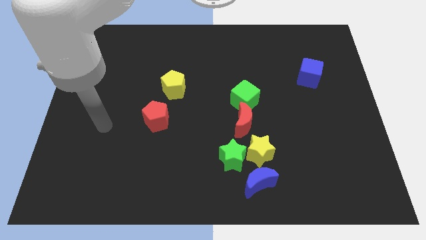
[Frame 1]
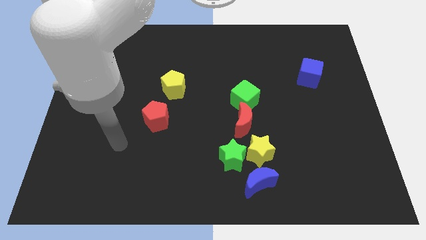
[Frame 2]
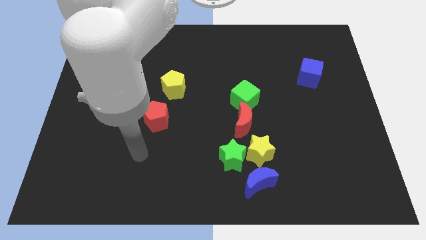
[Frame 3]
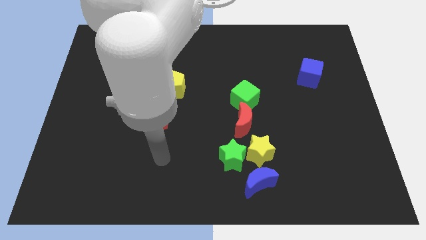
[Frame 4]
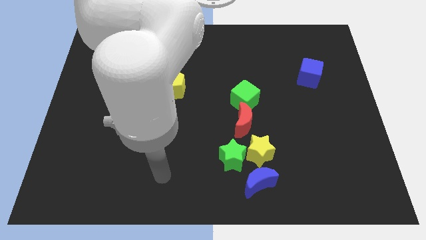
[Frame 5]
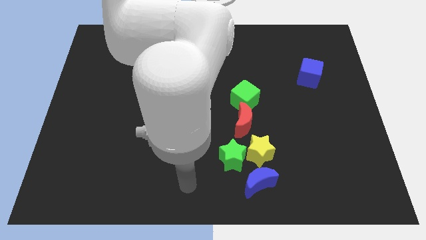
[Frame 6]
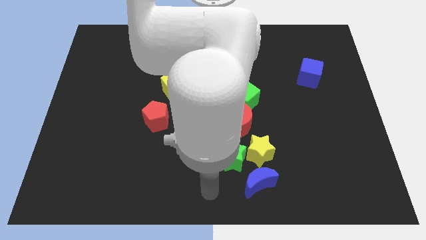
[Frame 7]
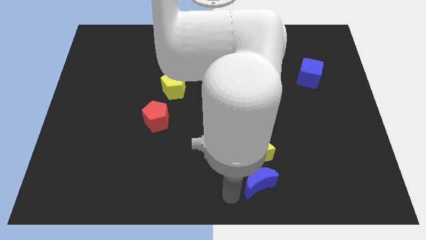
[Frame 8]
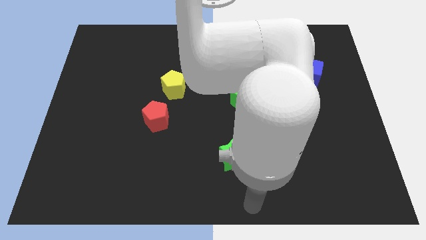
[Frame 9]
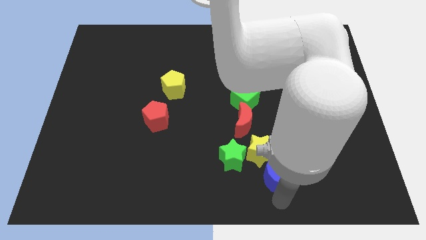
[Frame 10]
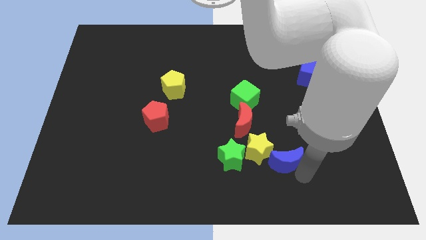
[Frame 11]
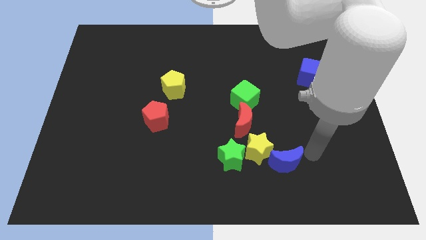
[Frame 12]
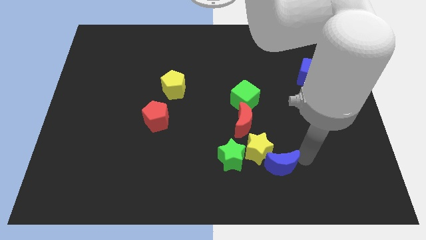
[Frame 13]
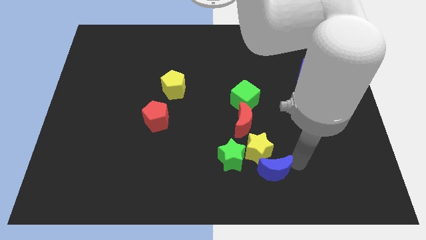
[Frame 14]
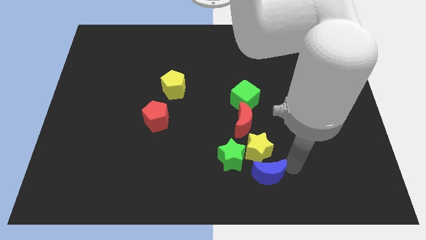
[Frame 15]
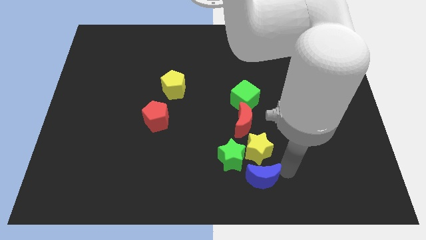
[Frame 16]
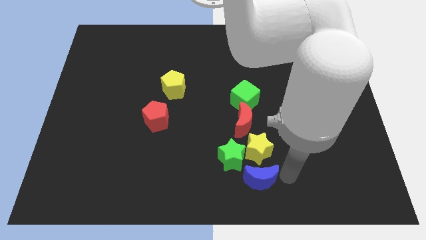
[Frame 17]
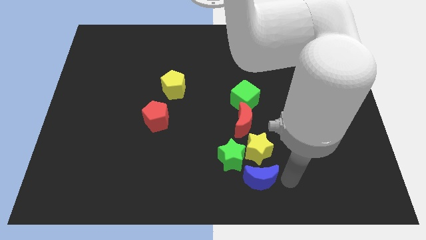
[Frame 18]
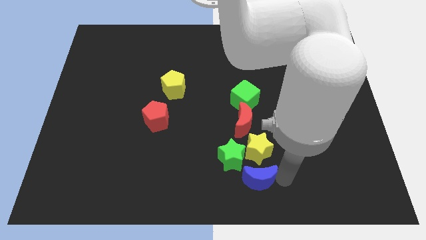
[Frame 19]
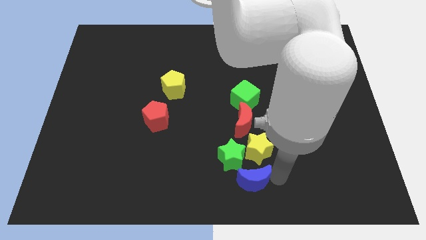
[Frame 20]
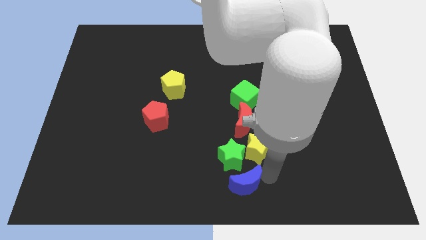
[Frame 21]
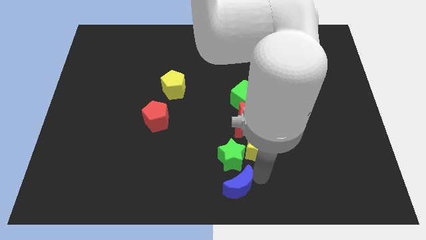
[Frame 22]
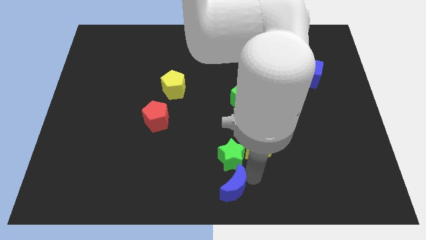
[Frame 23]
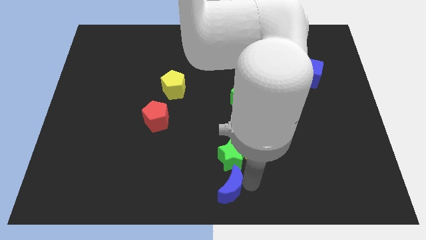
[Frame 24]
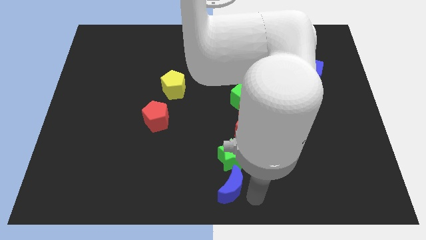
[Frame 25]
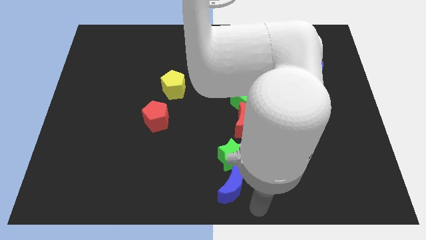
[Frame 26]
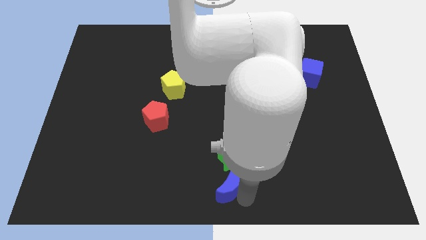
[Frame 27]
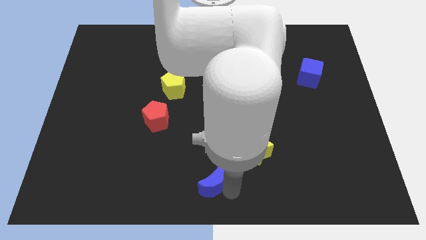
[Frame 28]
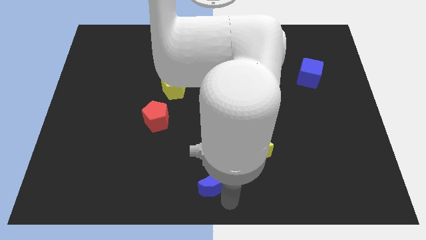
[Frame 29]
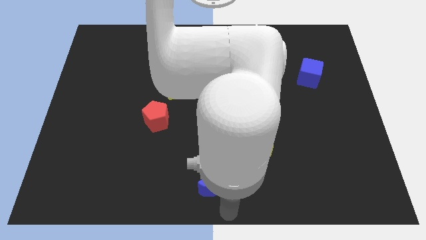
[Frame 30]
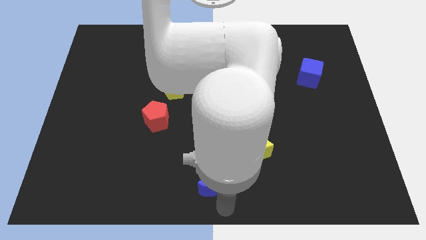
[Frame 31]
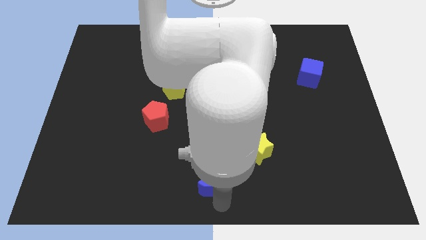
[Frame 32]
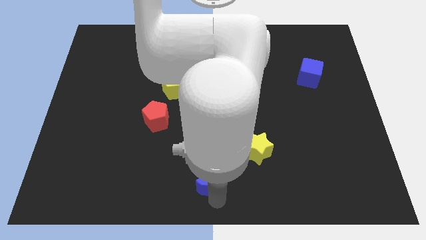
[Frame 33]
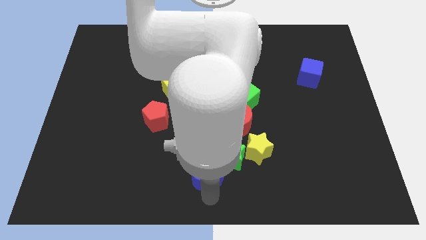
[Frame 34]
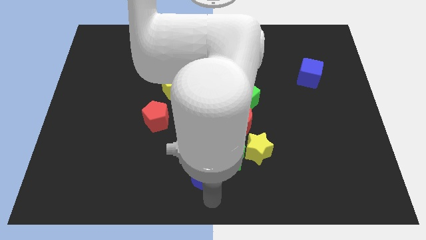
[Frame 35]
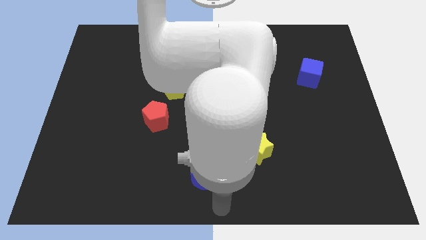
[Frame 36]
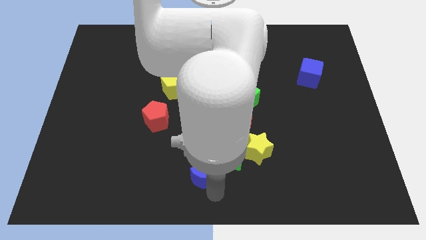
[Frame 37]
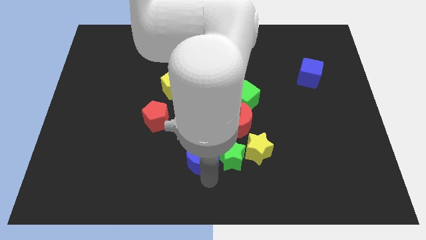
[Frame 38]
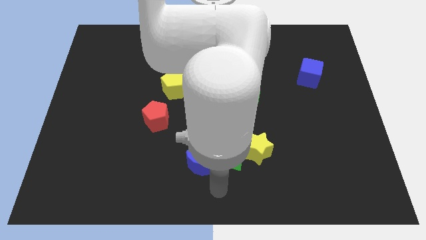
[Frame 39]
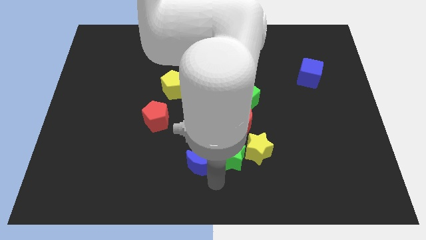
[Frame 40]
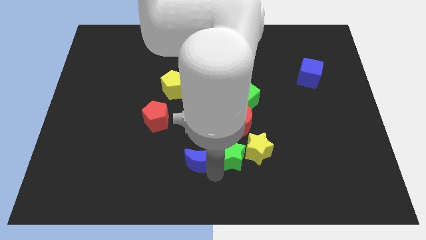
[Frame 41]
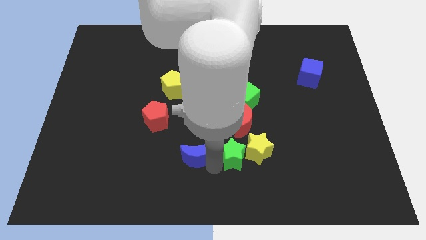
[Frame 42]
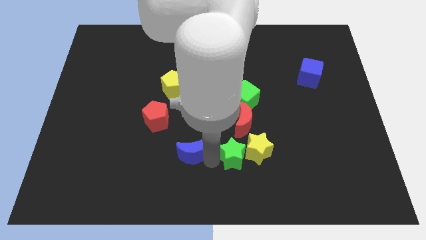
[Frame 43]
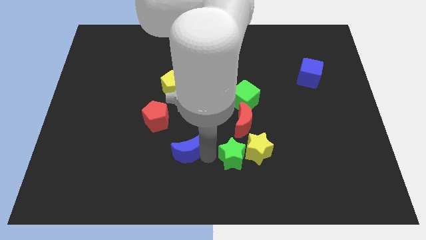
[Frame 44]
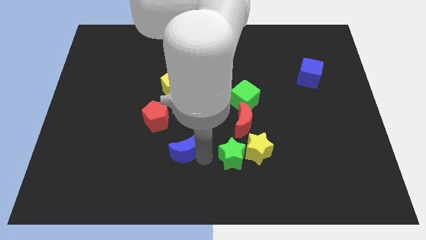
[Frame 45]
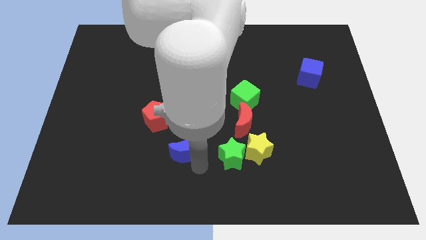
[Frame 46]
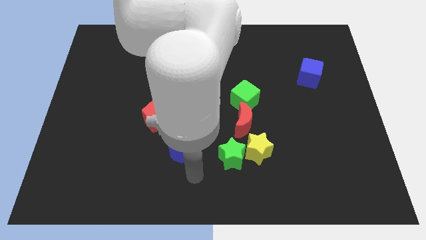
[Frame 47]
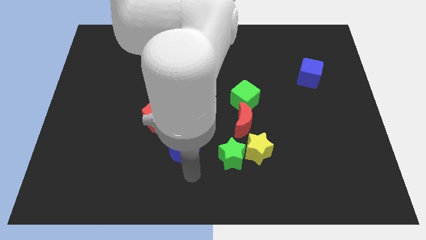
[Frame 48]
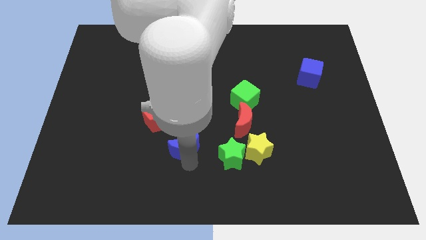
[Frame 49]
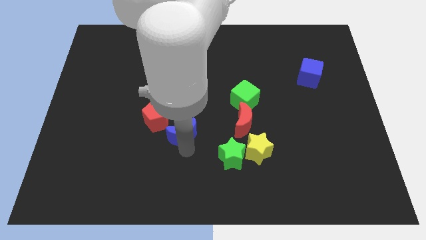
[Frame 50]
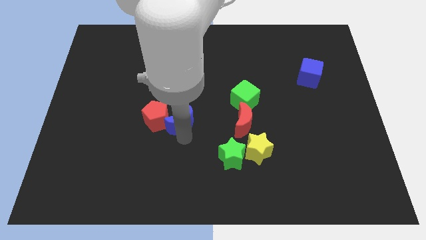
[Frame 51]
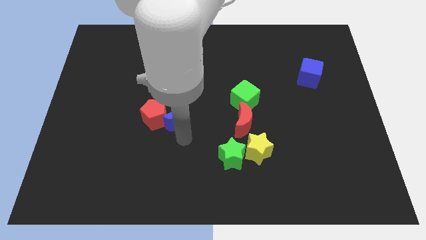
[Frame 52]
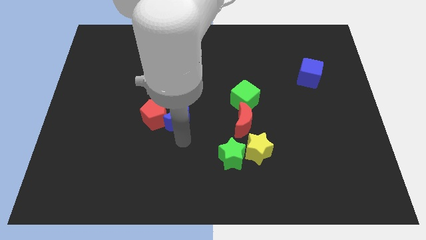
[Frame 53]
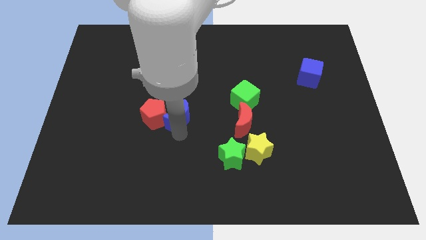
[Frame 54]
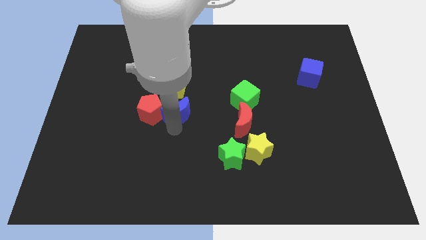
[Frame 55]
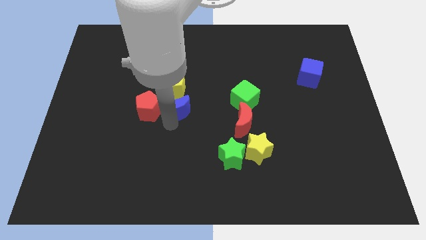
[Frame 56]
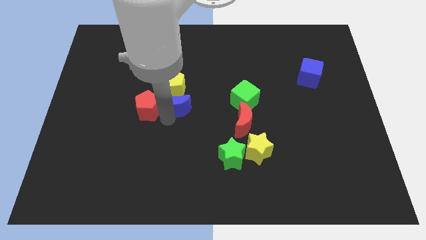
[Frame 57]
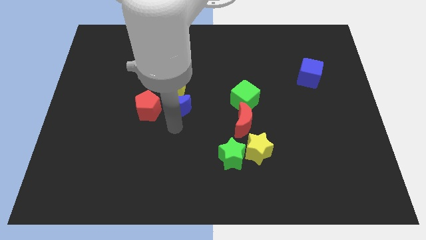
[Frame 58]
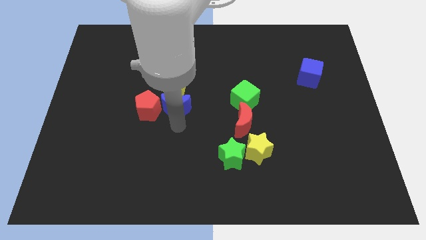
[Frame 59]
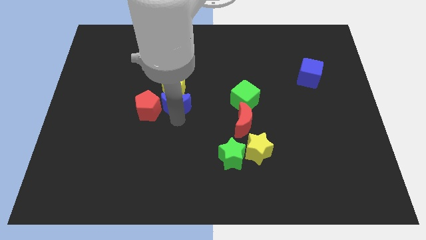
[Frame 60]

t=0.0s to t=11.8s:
put the blue moon to the yellow pentagon

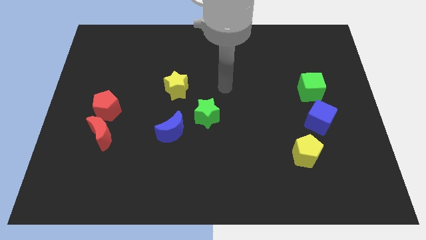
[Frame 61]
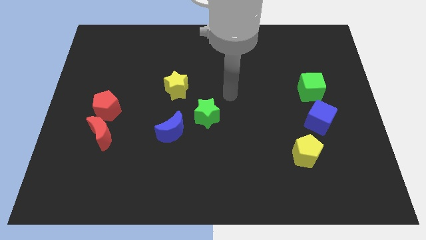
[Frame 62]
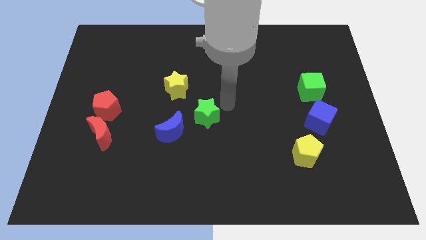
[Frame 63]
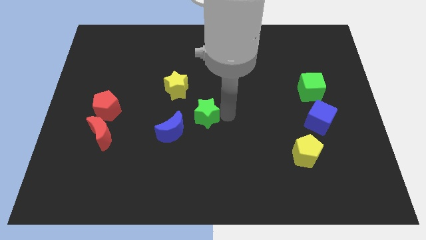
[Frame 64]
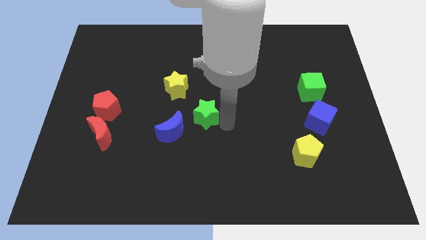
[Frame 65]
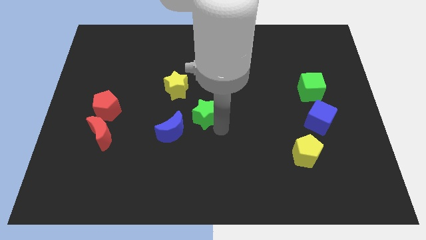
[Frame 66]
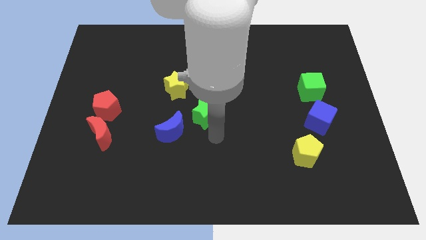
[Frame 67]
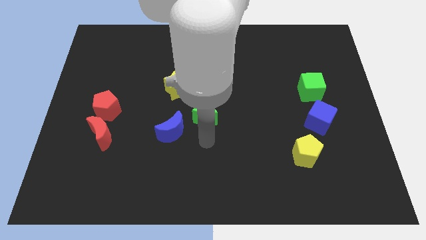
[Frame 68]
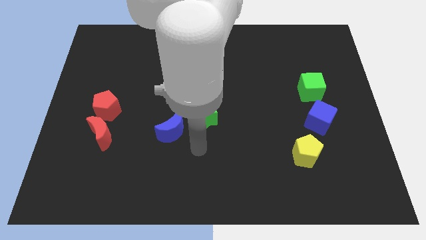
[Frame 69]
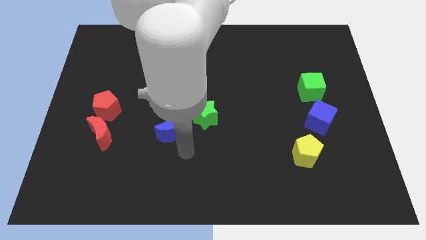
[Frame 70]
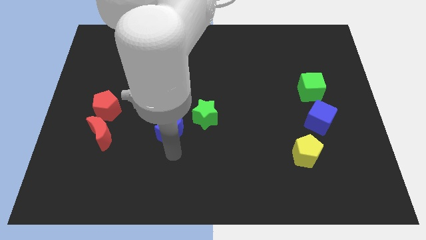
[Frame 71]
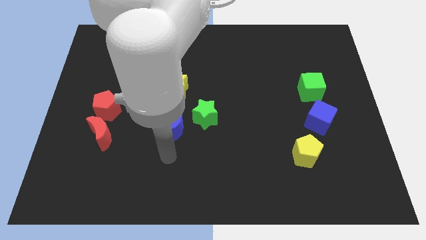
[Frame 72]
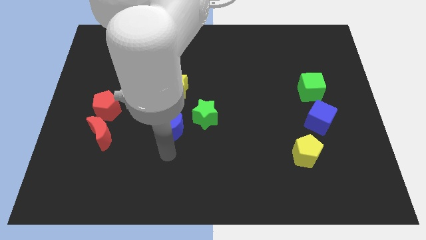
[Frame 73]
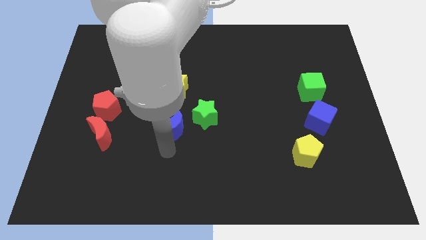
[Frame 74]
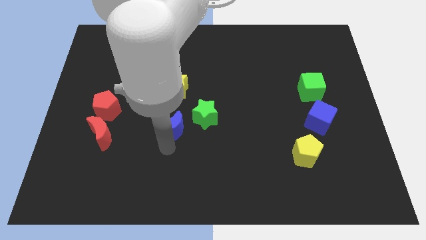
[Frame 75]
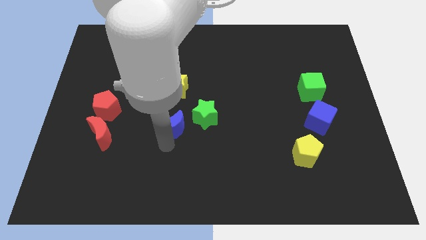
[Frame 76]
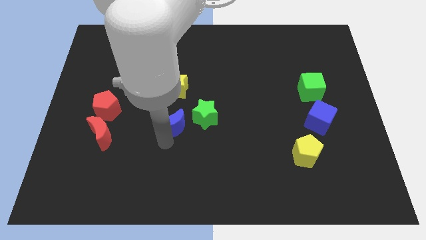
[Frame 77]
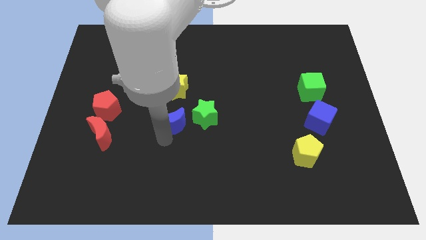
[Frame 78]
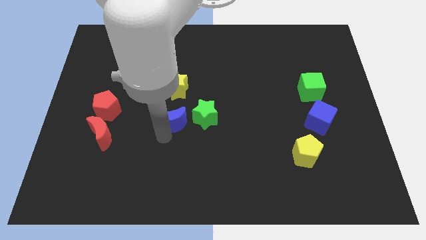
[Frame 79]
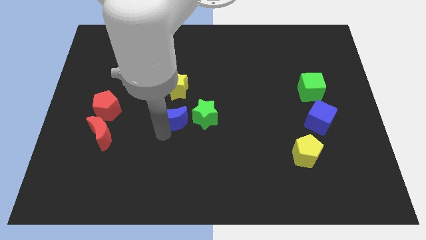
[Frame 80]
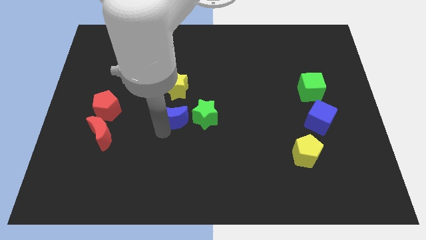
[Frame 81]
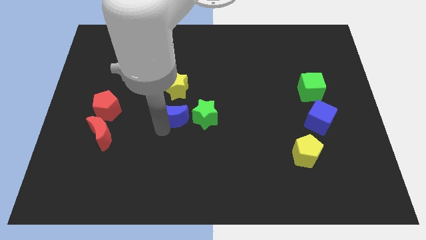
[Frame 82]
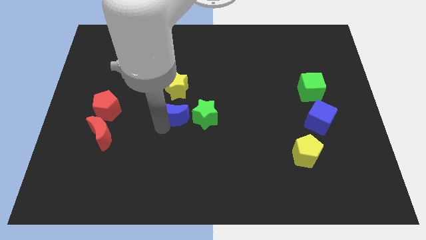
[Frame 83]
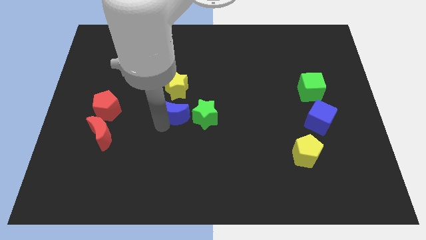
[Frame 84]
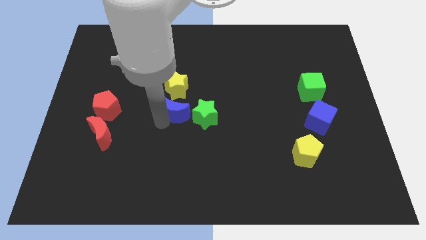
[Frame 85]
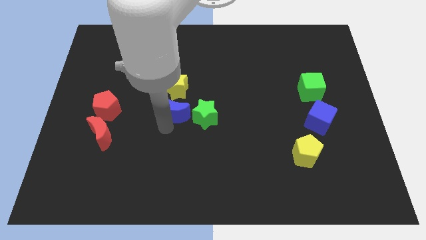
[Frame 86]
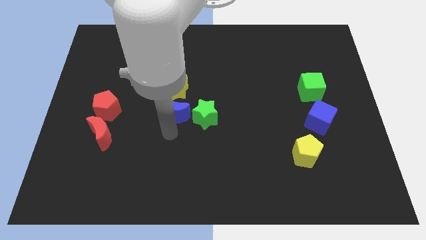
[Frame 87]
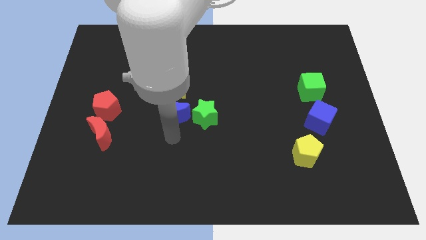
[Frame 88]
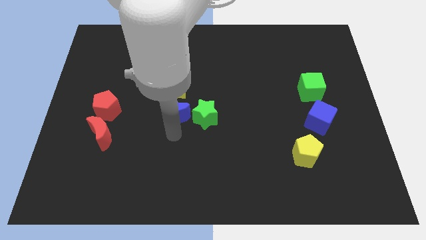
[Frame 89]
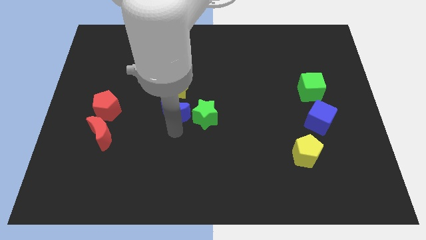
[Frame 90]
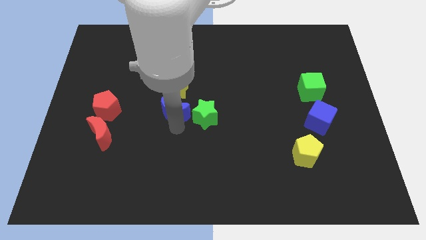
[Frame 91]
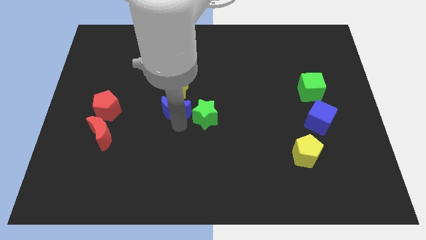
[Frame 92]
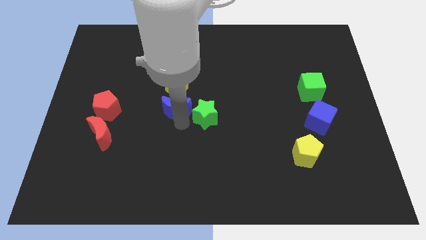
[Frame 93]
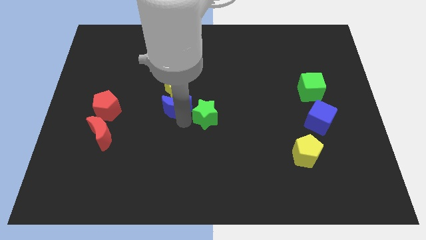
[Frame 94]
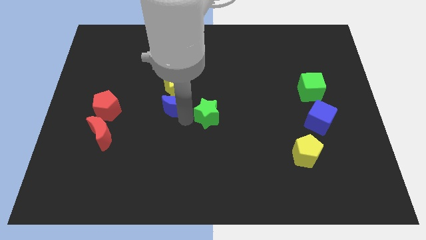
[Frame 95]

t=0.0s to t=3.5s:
put the blue moon to the yellow star
